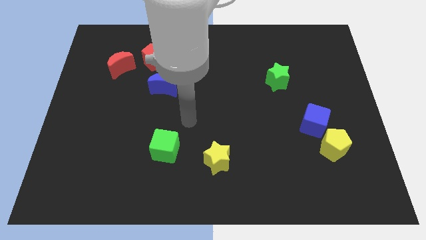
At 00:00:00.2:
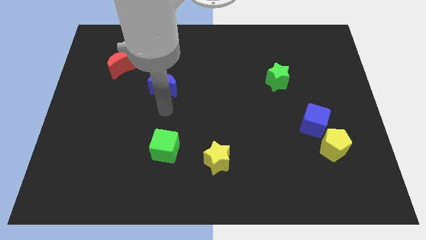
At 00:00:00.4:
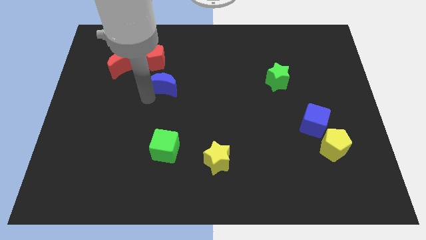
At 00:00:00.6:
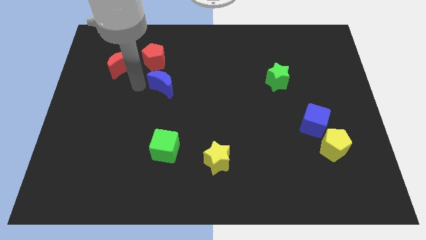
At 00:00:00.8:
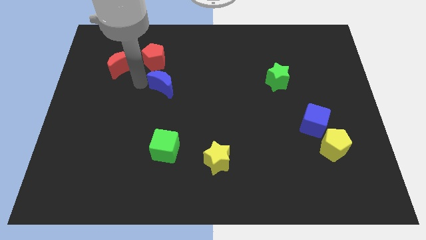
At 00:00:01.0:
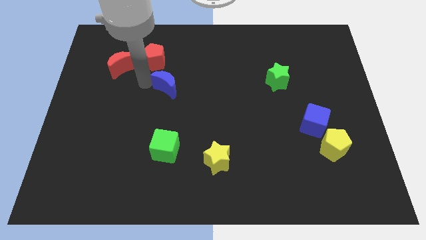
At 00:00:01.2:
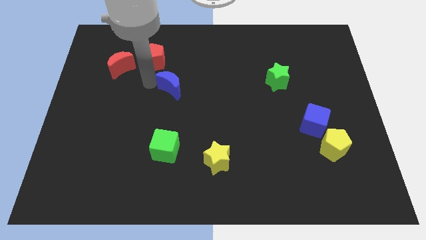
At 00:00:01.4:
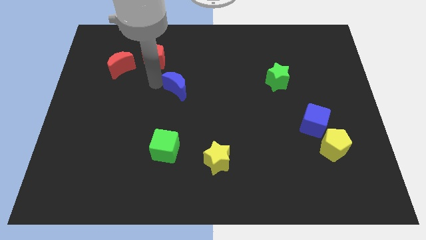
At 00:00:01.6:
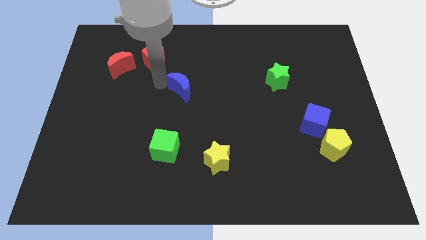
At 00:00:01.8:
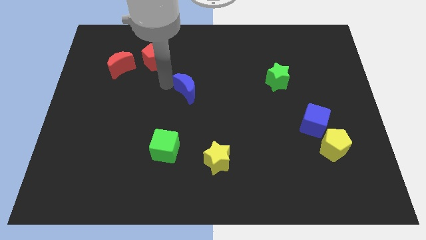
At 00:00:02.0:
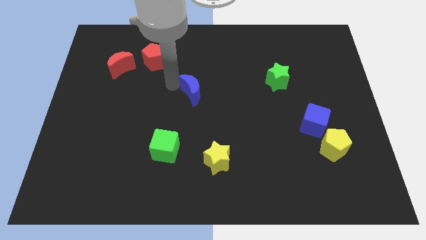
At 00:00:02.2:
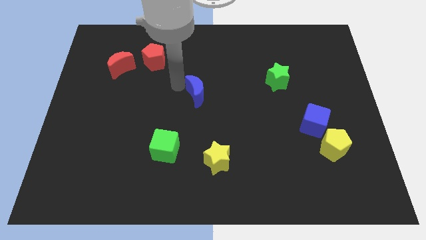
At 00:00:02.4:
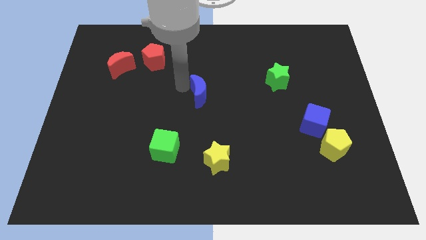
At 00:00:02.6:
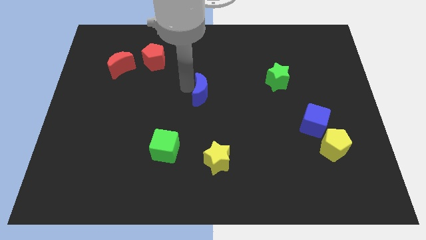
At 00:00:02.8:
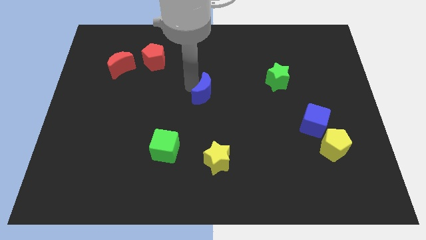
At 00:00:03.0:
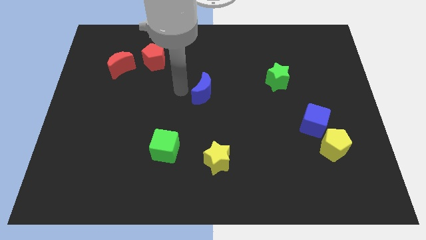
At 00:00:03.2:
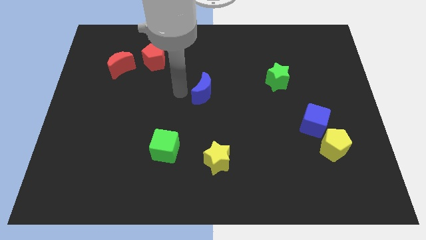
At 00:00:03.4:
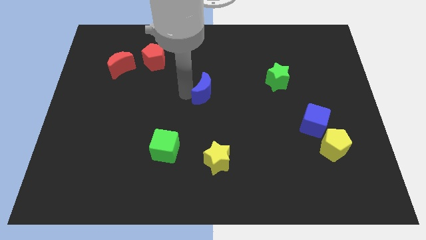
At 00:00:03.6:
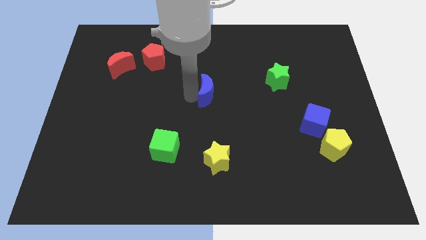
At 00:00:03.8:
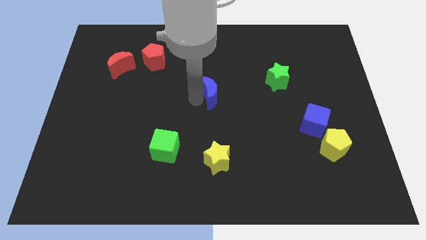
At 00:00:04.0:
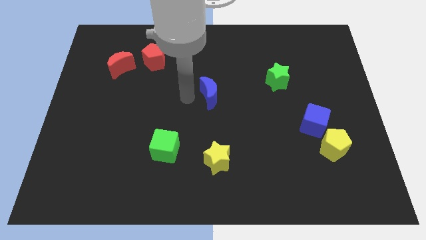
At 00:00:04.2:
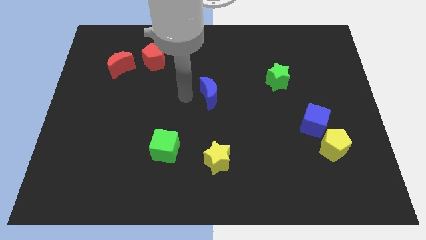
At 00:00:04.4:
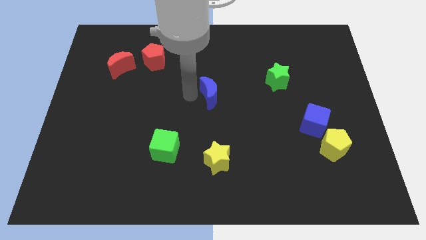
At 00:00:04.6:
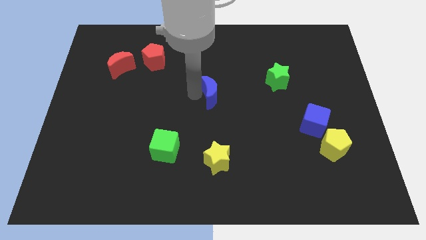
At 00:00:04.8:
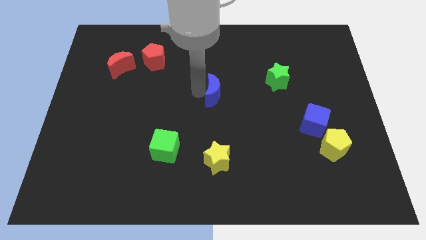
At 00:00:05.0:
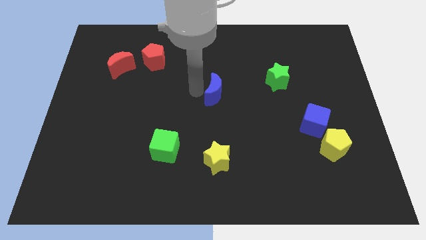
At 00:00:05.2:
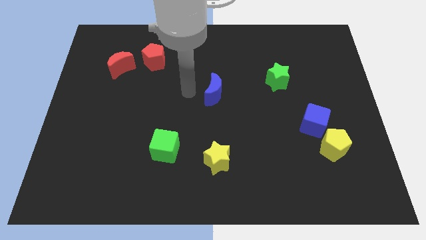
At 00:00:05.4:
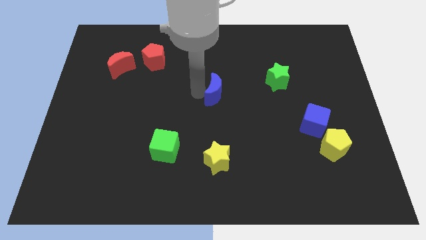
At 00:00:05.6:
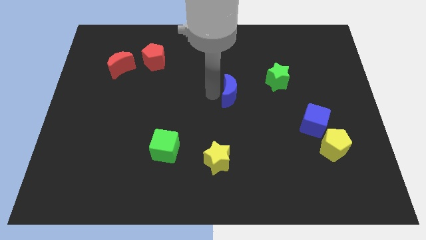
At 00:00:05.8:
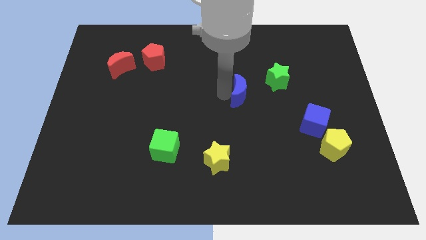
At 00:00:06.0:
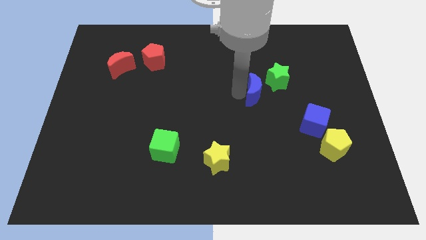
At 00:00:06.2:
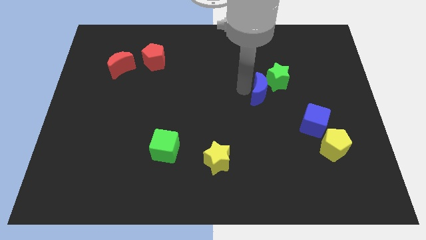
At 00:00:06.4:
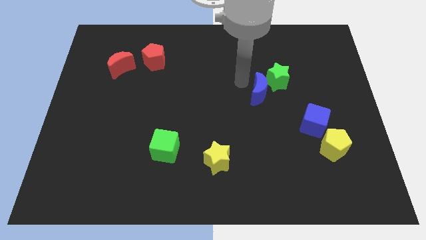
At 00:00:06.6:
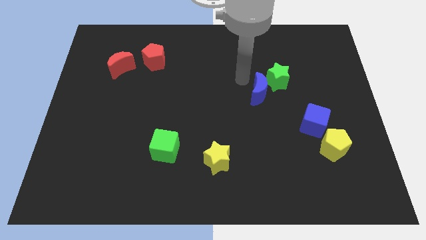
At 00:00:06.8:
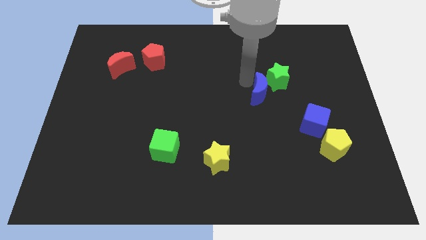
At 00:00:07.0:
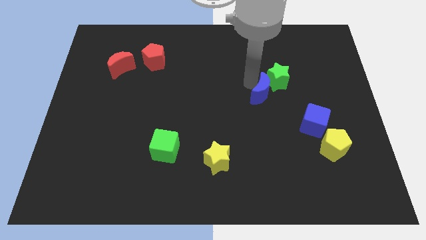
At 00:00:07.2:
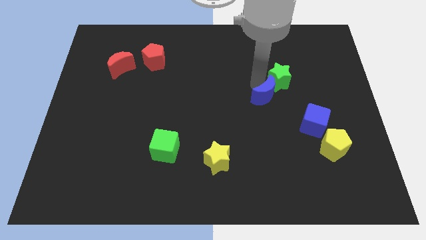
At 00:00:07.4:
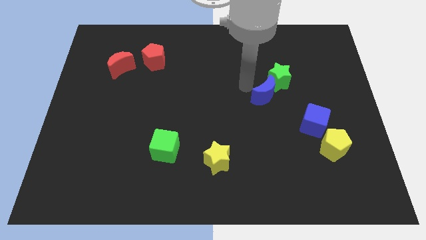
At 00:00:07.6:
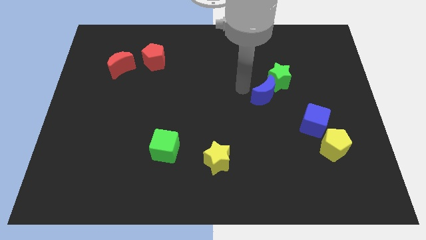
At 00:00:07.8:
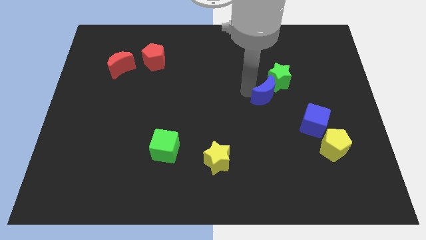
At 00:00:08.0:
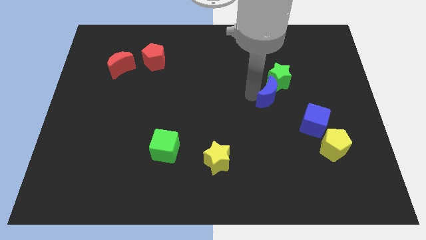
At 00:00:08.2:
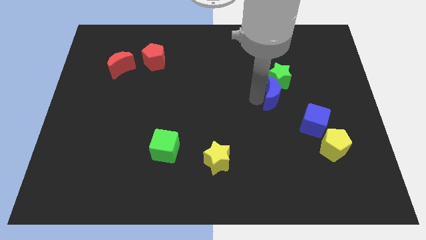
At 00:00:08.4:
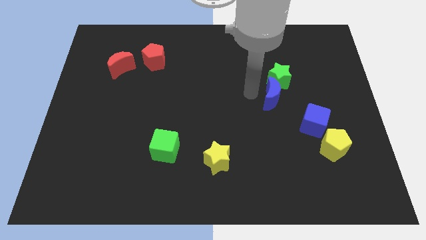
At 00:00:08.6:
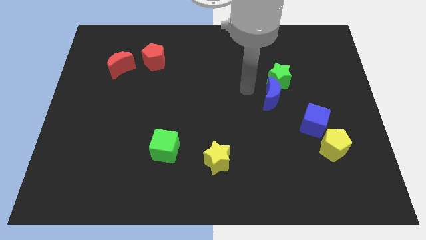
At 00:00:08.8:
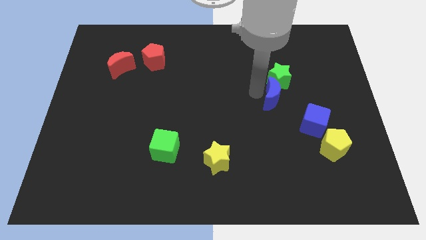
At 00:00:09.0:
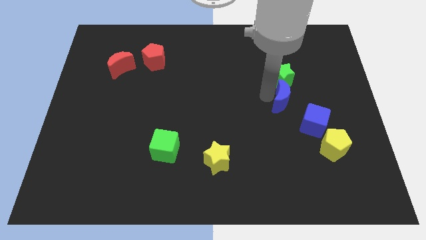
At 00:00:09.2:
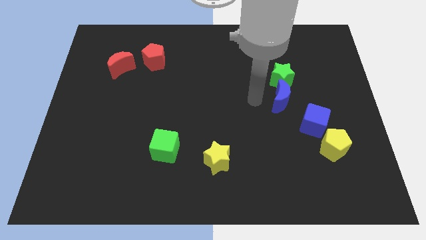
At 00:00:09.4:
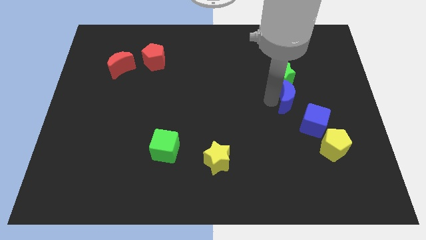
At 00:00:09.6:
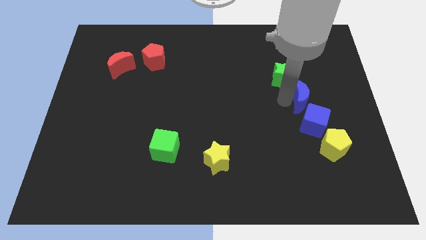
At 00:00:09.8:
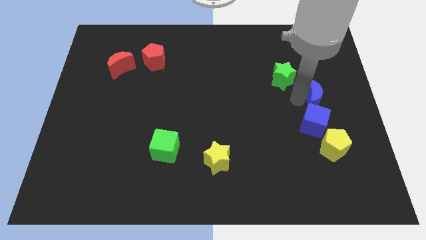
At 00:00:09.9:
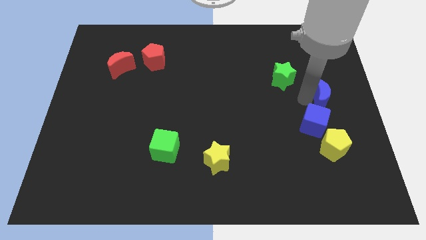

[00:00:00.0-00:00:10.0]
put the blue moon to the right side

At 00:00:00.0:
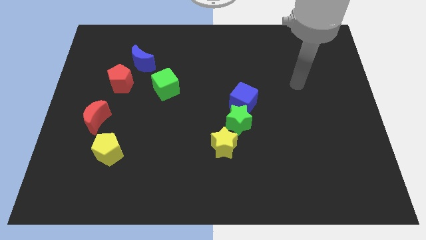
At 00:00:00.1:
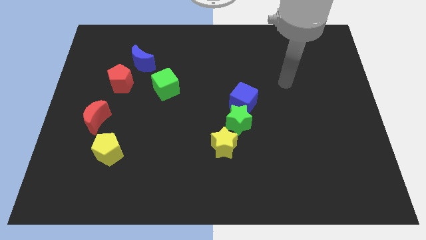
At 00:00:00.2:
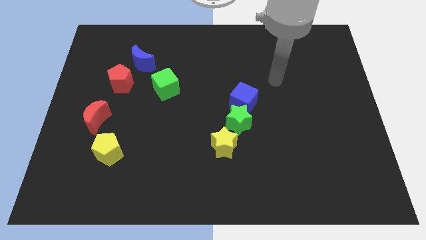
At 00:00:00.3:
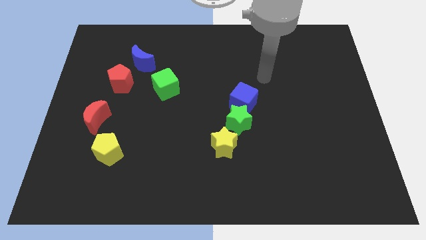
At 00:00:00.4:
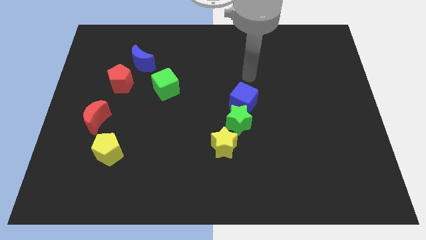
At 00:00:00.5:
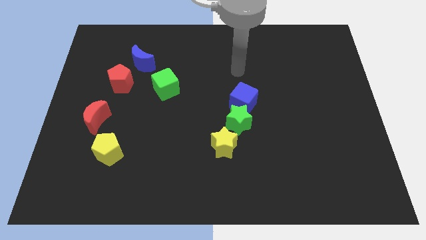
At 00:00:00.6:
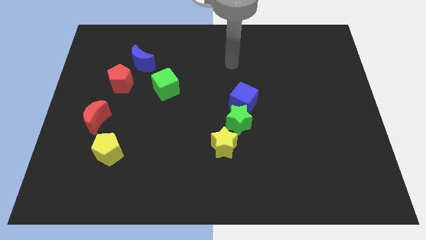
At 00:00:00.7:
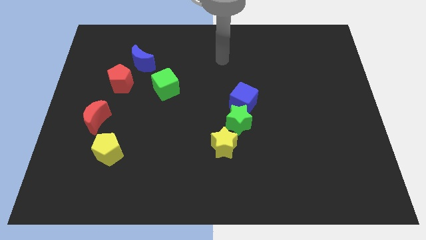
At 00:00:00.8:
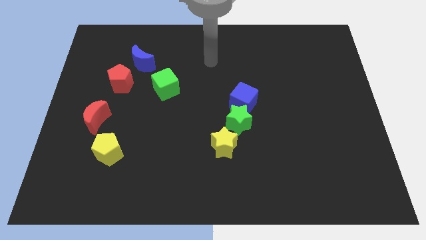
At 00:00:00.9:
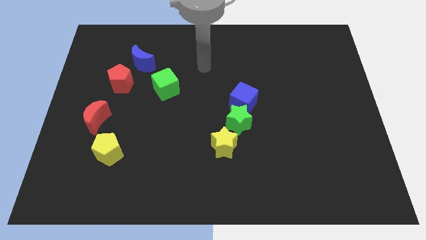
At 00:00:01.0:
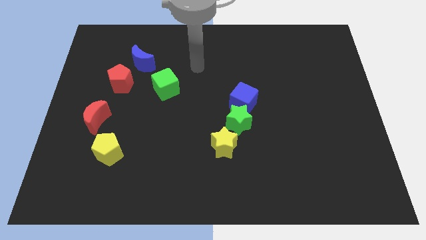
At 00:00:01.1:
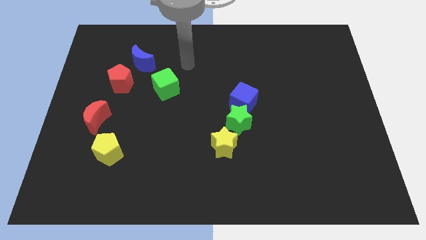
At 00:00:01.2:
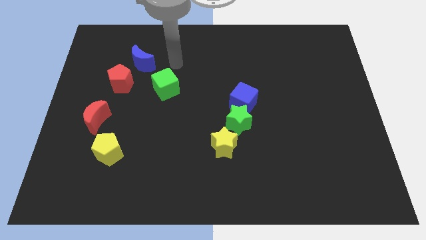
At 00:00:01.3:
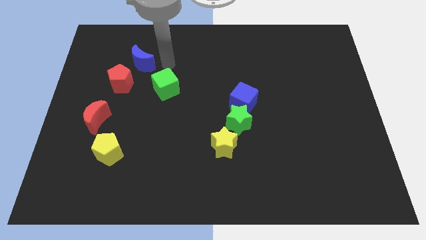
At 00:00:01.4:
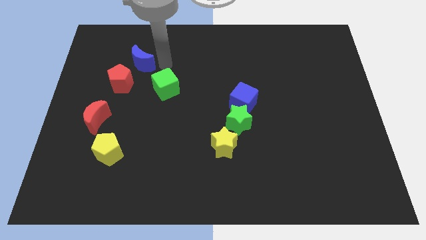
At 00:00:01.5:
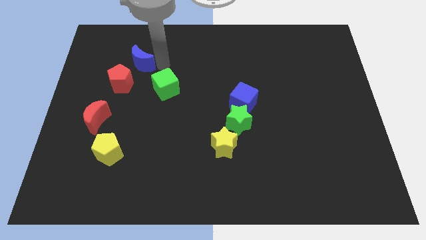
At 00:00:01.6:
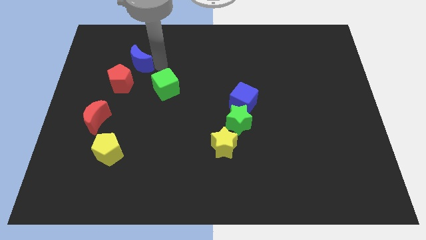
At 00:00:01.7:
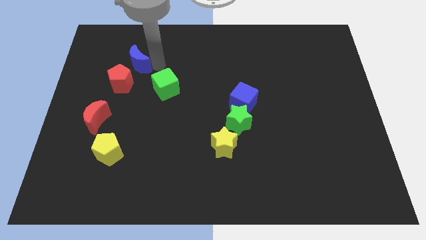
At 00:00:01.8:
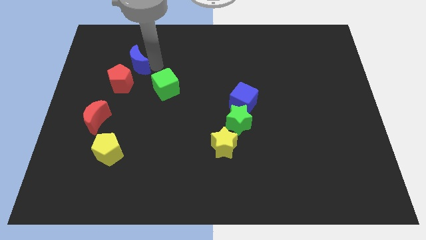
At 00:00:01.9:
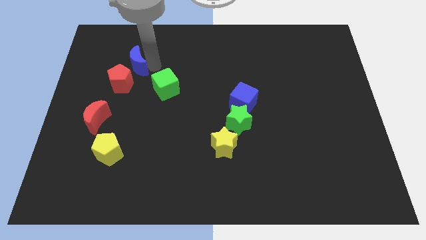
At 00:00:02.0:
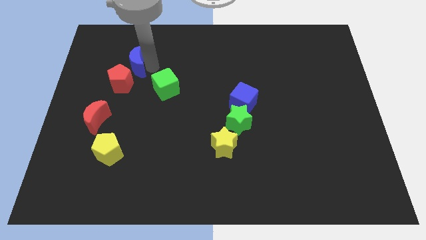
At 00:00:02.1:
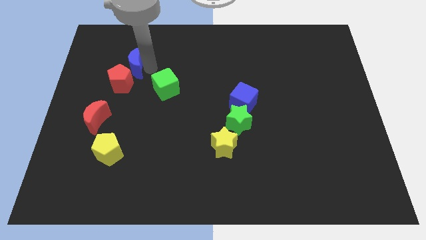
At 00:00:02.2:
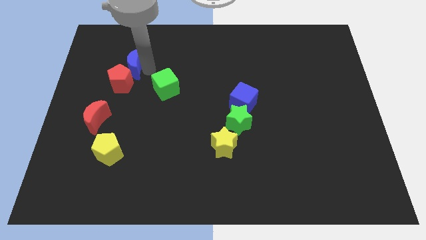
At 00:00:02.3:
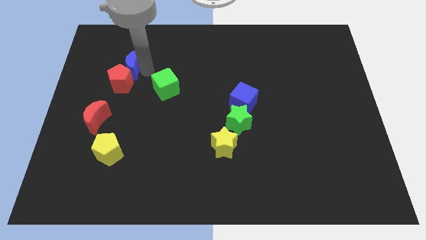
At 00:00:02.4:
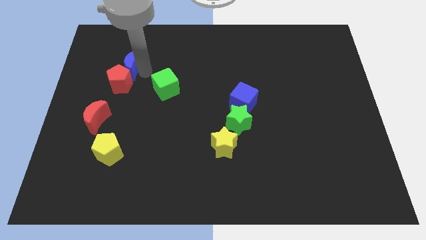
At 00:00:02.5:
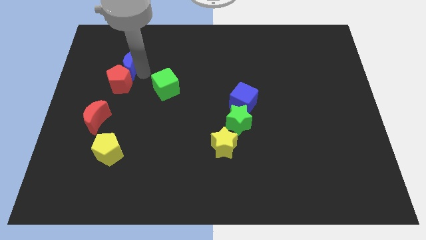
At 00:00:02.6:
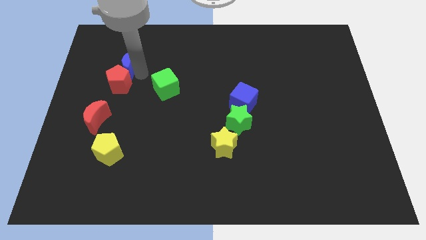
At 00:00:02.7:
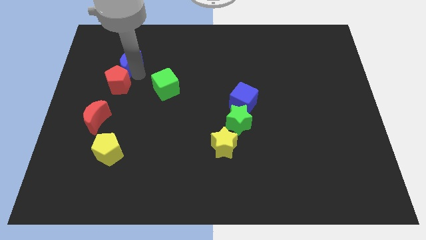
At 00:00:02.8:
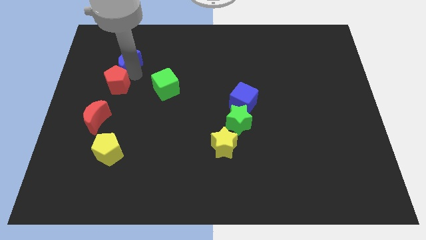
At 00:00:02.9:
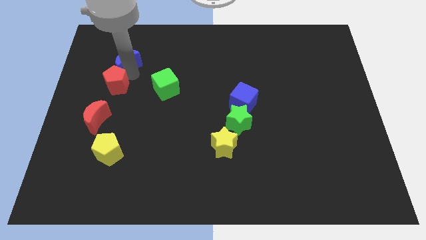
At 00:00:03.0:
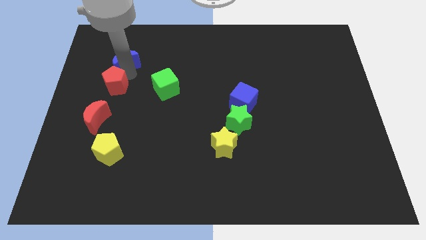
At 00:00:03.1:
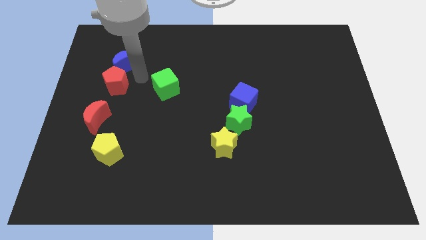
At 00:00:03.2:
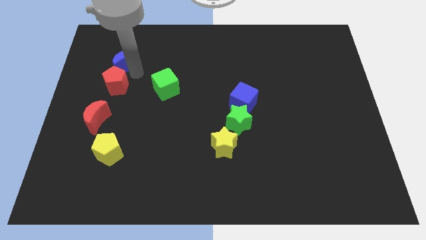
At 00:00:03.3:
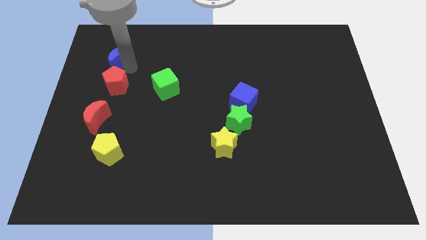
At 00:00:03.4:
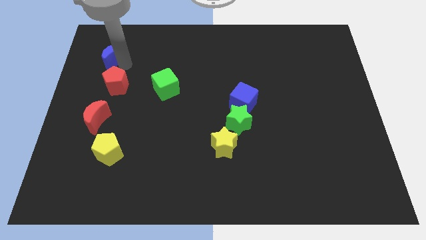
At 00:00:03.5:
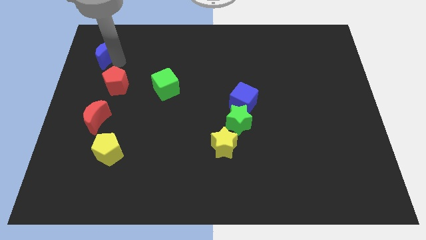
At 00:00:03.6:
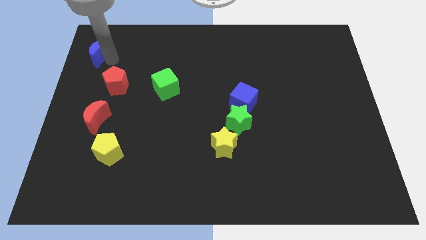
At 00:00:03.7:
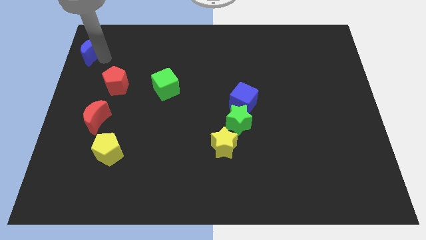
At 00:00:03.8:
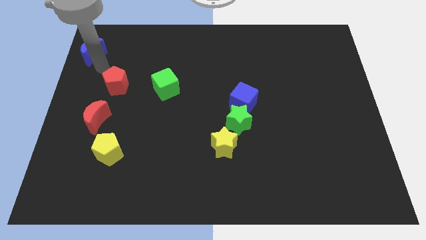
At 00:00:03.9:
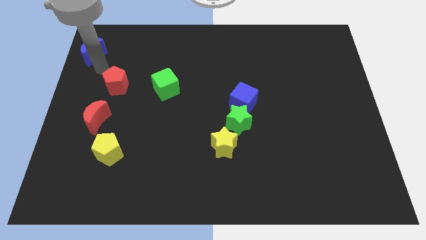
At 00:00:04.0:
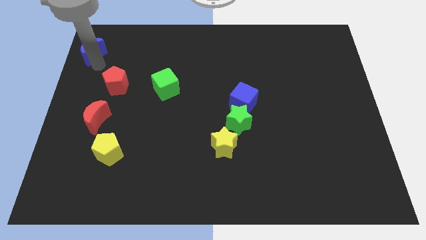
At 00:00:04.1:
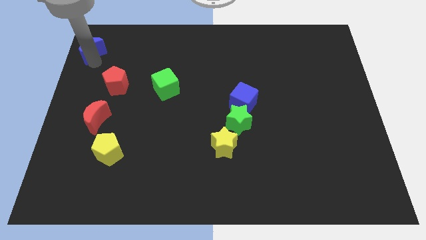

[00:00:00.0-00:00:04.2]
slide the blue moon to the upper left corner
